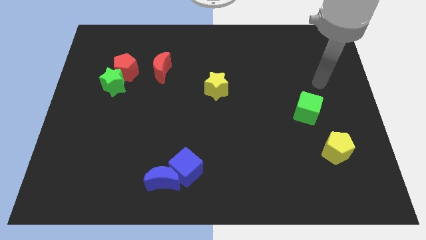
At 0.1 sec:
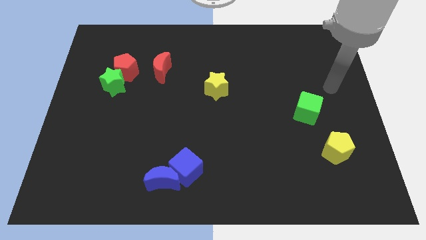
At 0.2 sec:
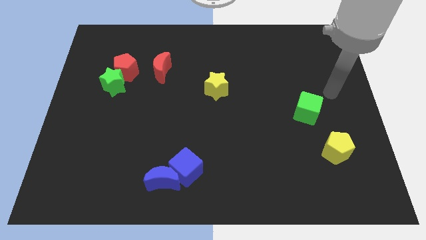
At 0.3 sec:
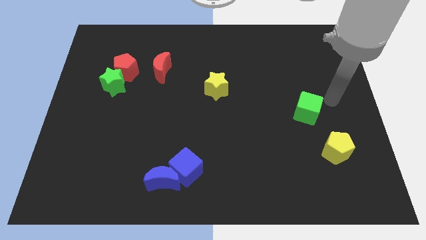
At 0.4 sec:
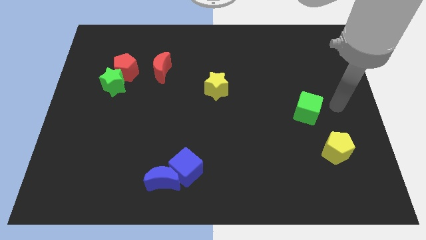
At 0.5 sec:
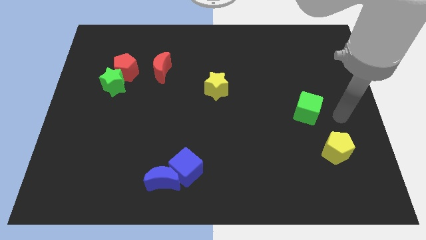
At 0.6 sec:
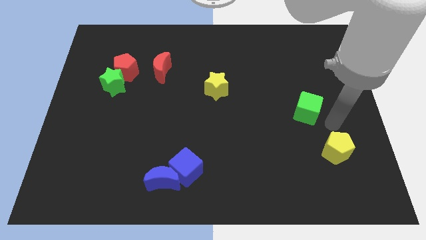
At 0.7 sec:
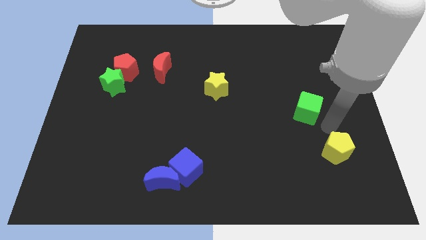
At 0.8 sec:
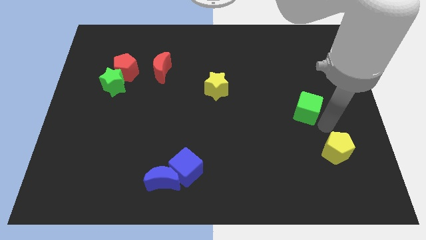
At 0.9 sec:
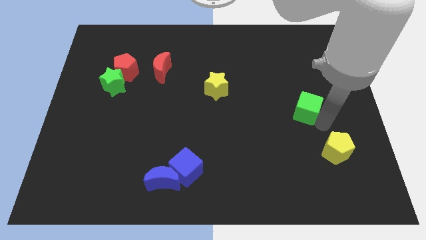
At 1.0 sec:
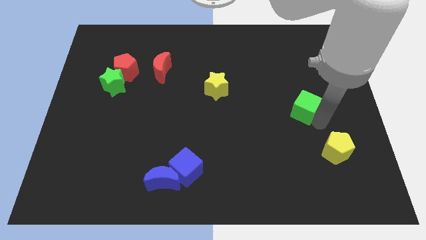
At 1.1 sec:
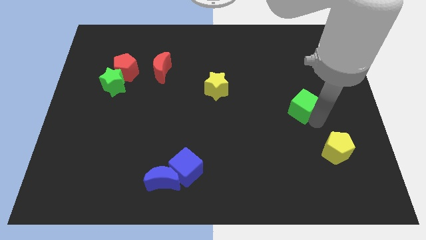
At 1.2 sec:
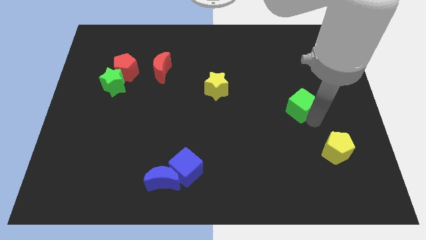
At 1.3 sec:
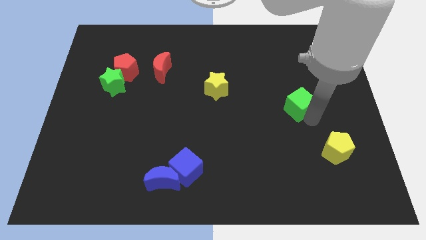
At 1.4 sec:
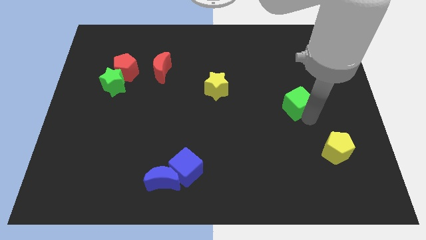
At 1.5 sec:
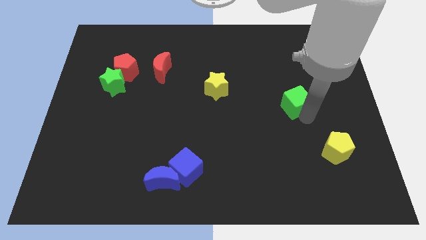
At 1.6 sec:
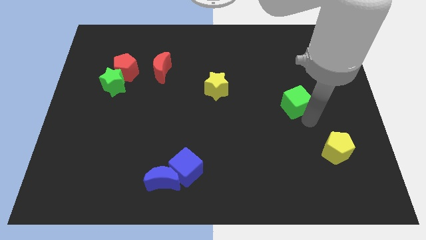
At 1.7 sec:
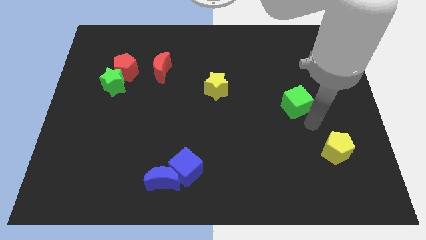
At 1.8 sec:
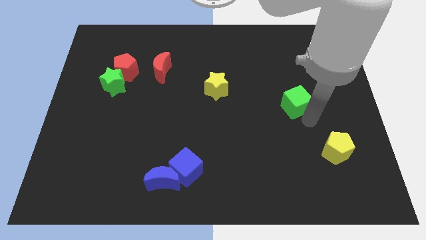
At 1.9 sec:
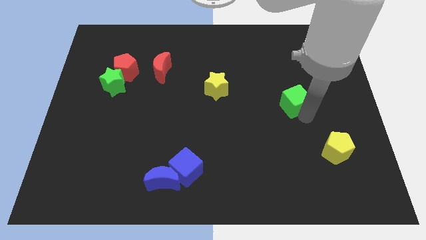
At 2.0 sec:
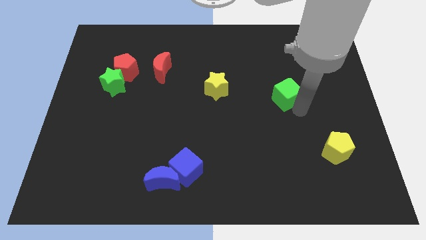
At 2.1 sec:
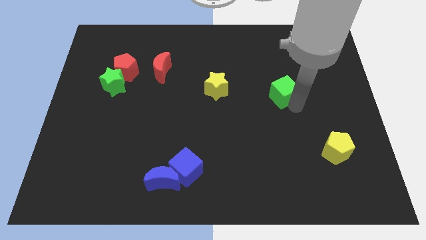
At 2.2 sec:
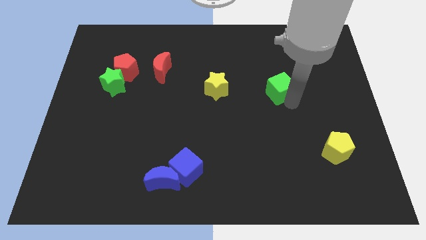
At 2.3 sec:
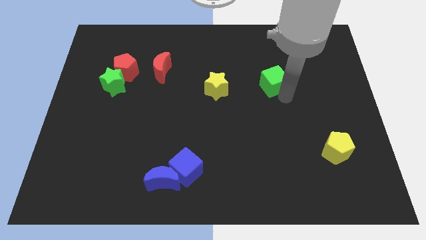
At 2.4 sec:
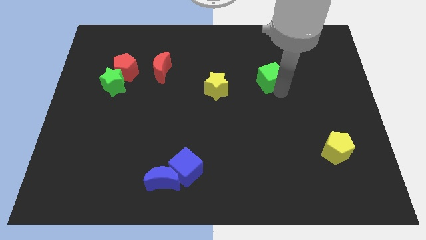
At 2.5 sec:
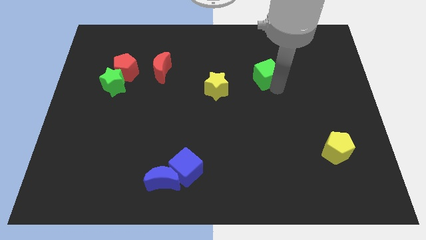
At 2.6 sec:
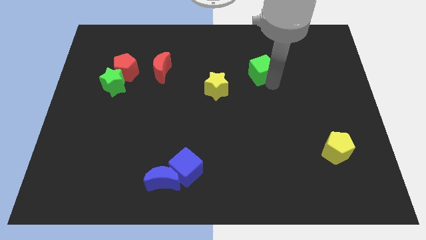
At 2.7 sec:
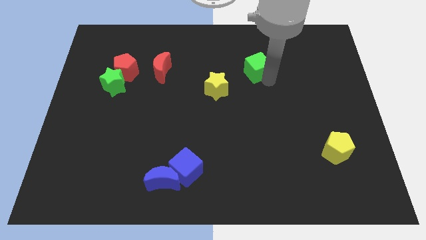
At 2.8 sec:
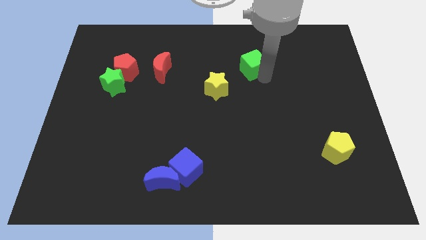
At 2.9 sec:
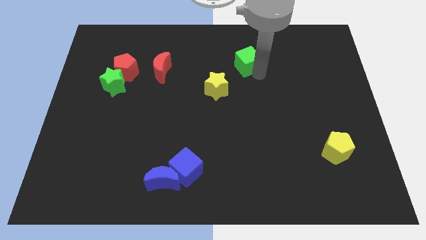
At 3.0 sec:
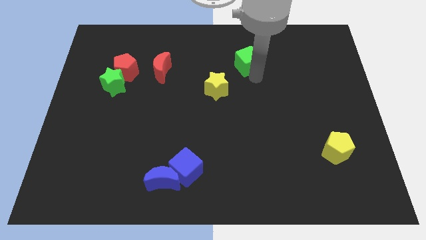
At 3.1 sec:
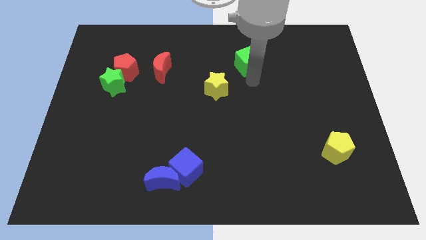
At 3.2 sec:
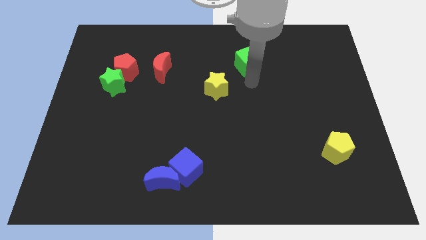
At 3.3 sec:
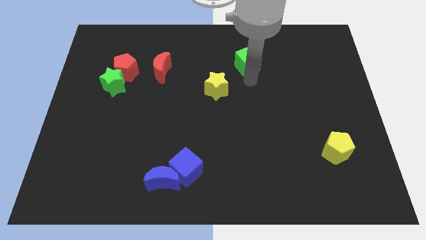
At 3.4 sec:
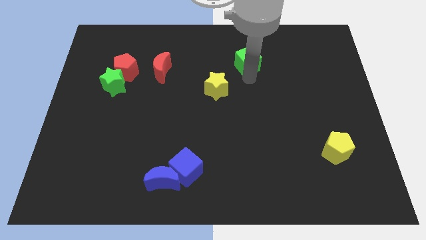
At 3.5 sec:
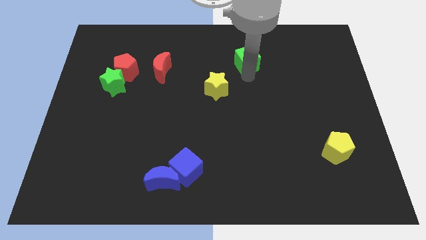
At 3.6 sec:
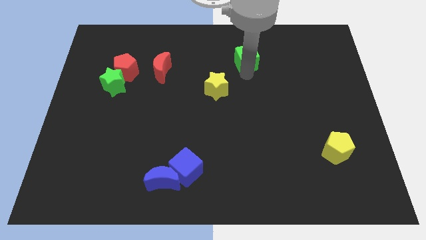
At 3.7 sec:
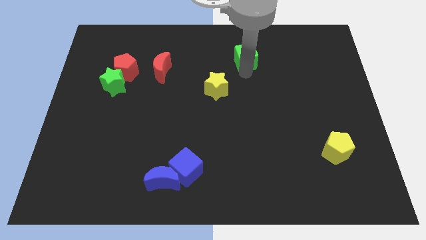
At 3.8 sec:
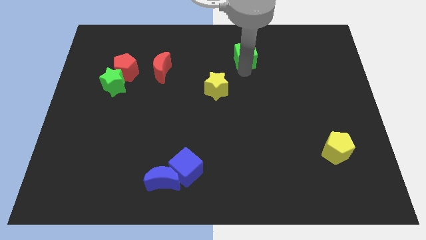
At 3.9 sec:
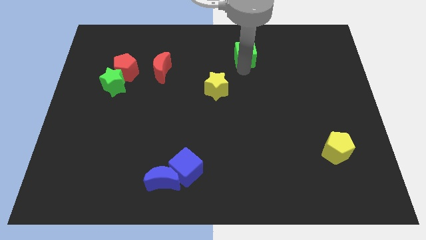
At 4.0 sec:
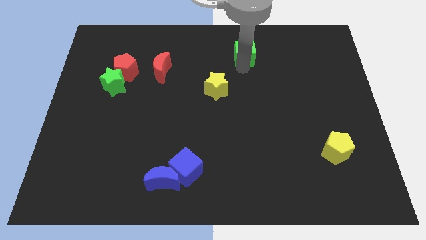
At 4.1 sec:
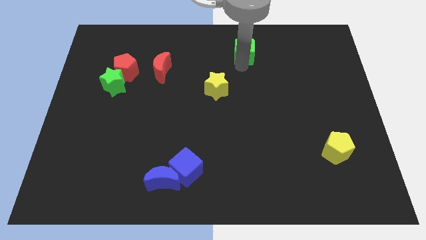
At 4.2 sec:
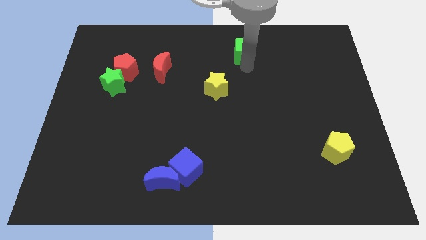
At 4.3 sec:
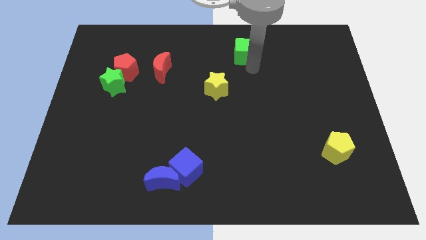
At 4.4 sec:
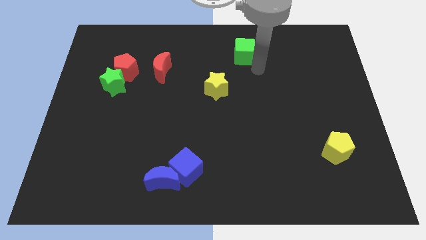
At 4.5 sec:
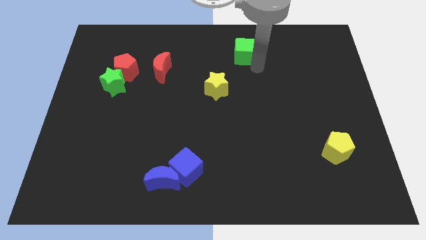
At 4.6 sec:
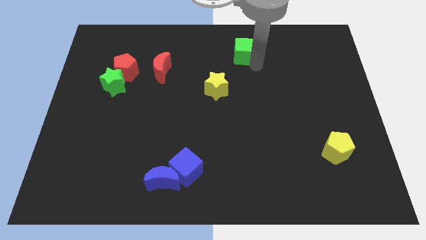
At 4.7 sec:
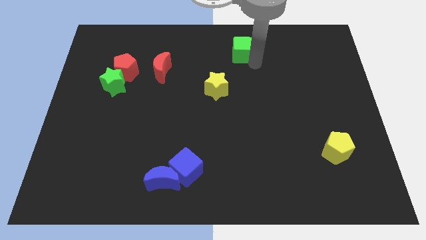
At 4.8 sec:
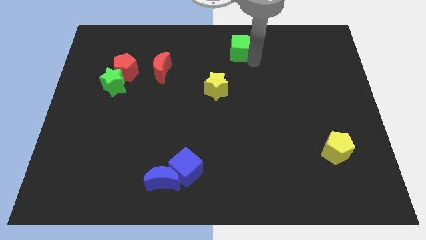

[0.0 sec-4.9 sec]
put the green cube to the top

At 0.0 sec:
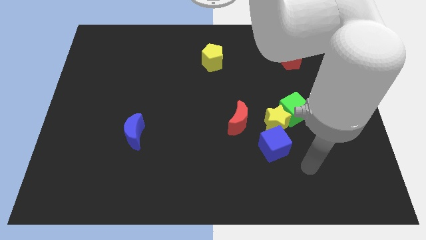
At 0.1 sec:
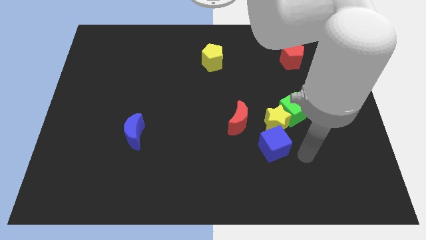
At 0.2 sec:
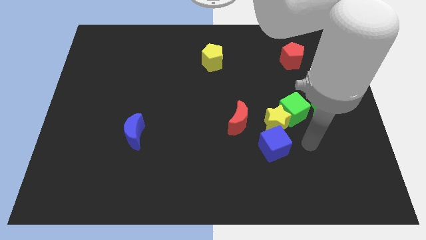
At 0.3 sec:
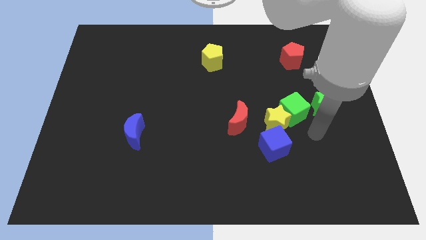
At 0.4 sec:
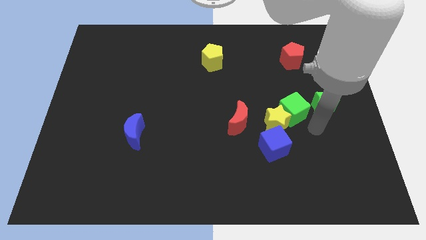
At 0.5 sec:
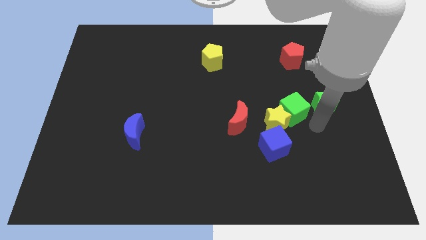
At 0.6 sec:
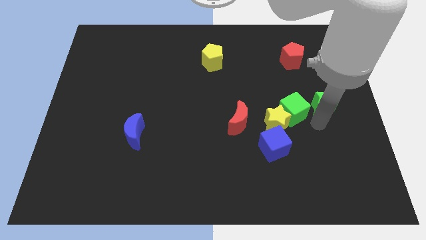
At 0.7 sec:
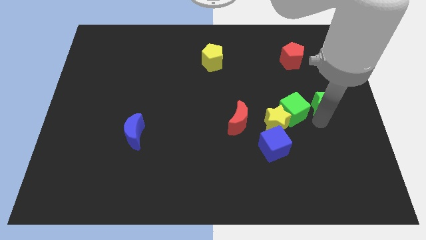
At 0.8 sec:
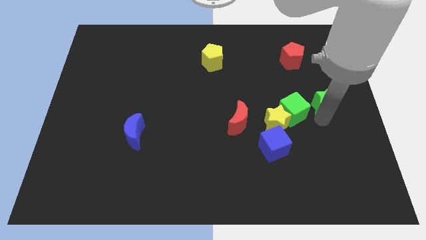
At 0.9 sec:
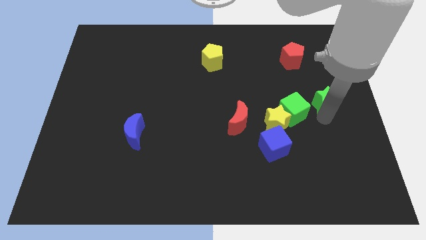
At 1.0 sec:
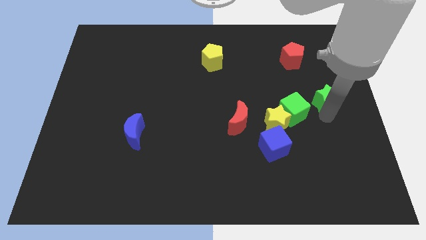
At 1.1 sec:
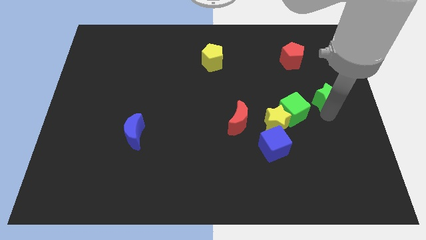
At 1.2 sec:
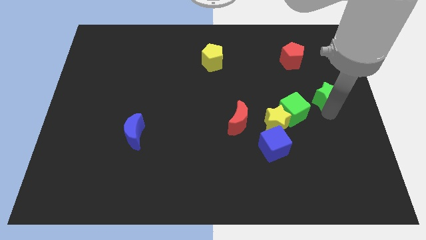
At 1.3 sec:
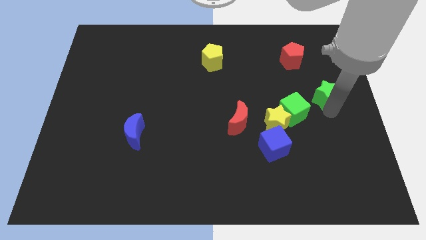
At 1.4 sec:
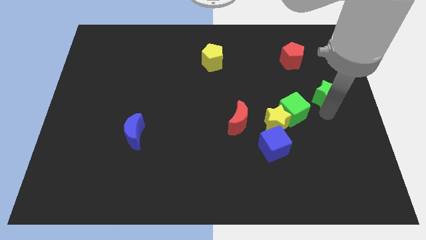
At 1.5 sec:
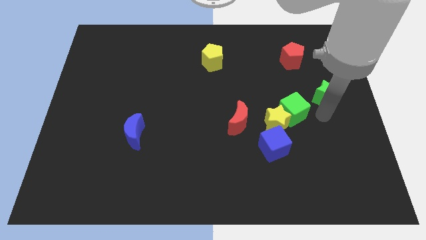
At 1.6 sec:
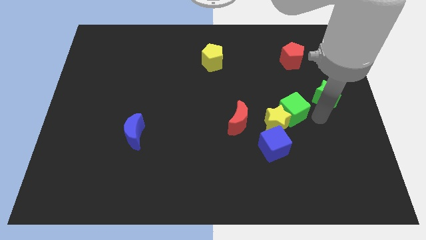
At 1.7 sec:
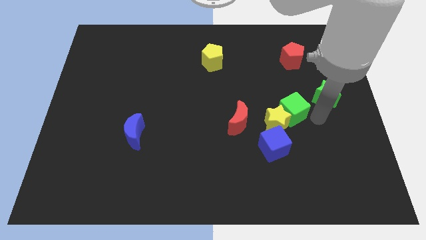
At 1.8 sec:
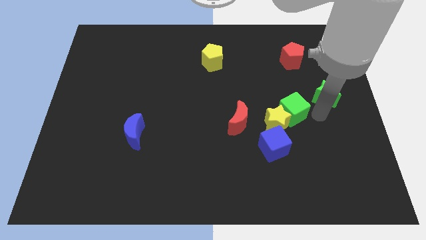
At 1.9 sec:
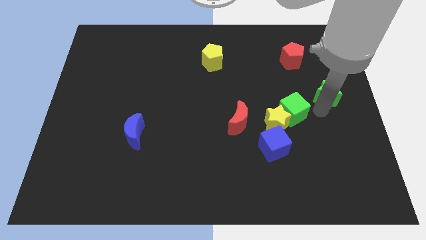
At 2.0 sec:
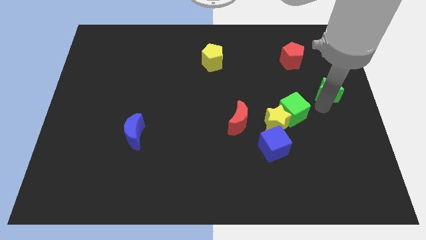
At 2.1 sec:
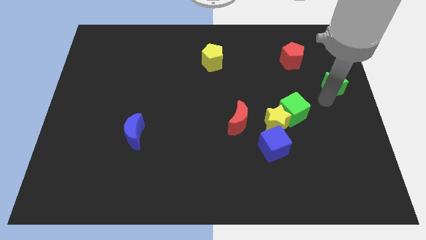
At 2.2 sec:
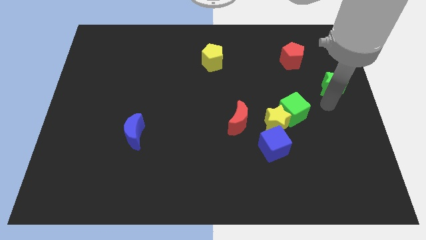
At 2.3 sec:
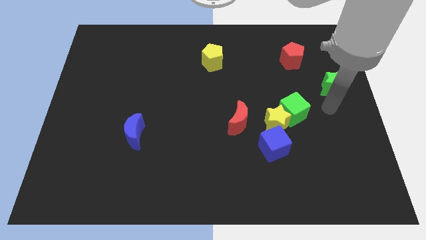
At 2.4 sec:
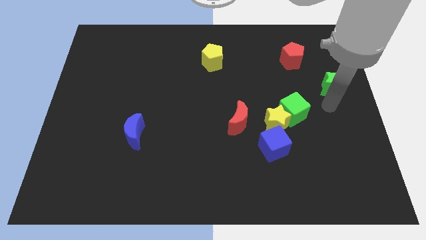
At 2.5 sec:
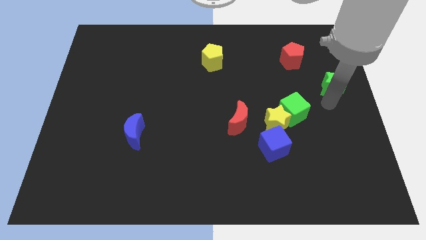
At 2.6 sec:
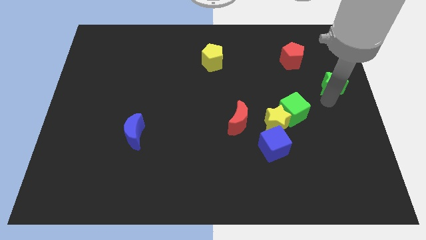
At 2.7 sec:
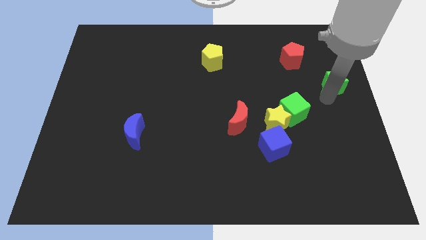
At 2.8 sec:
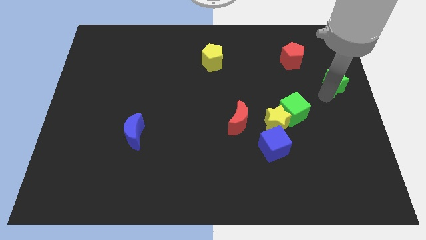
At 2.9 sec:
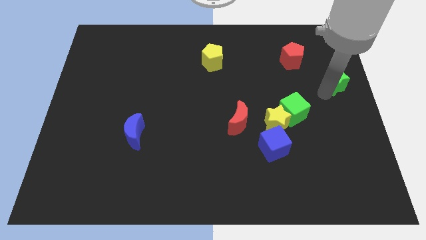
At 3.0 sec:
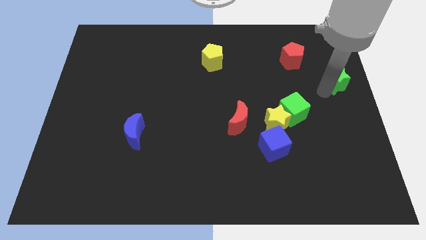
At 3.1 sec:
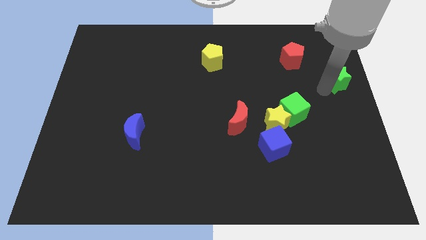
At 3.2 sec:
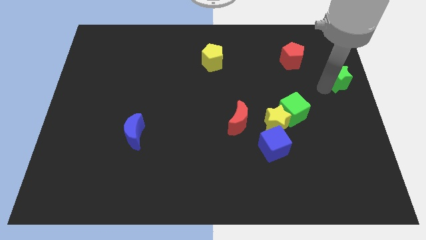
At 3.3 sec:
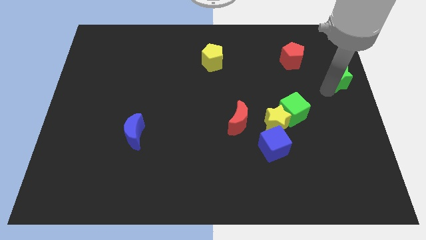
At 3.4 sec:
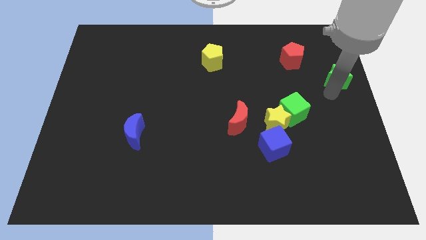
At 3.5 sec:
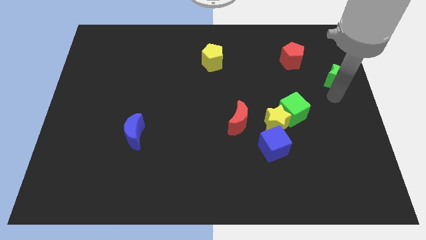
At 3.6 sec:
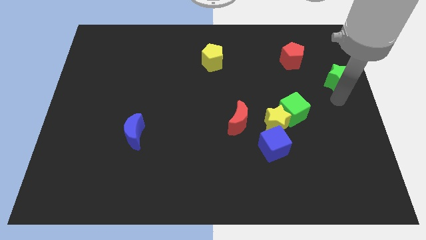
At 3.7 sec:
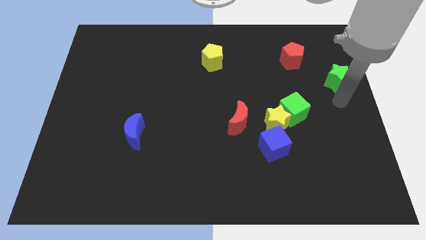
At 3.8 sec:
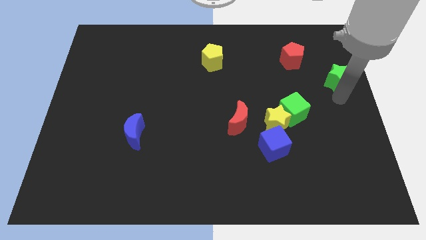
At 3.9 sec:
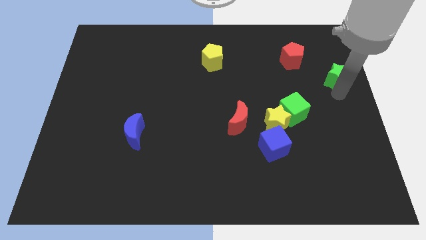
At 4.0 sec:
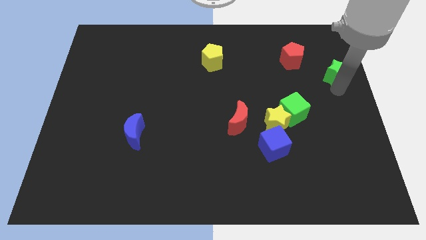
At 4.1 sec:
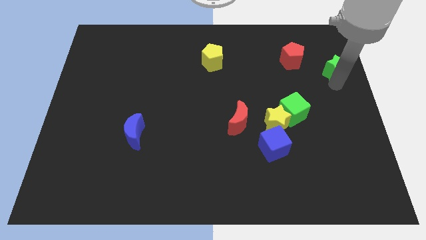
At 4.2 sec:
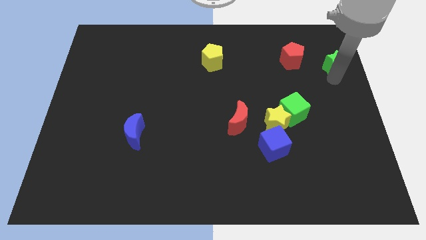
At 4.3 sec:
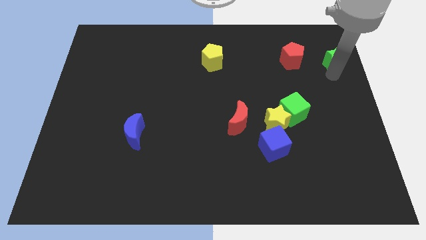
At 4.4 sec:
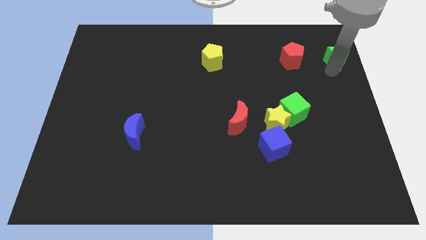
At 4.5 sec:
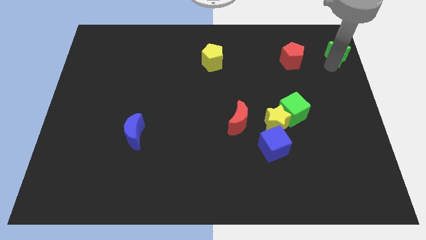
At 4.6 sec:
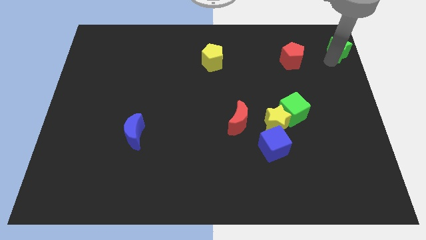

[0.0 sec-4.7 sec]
put the green star to the upper right corner
